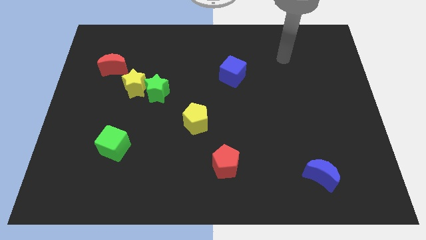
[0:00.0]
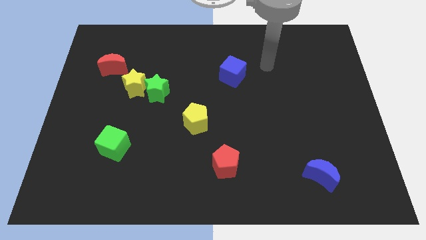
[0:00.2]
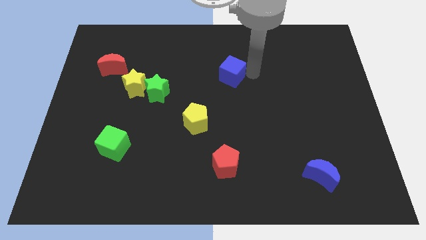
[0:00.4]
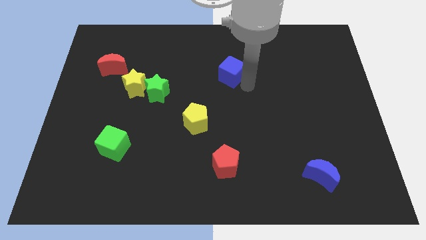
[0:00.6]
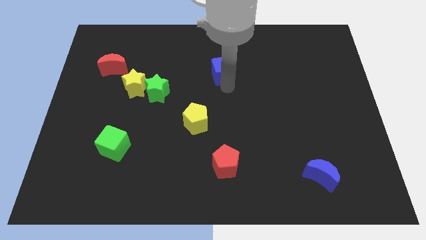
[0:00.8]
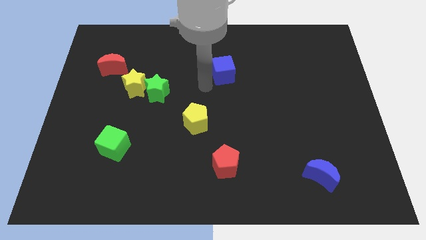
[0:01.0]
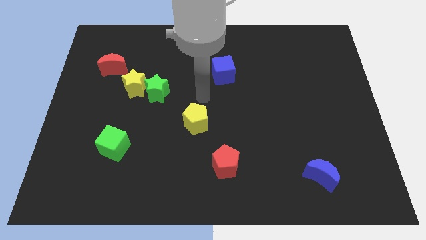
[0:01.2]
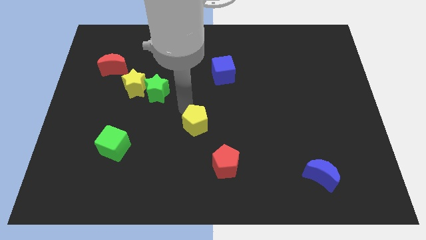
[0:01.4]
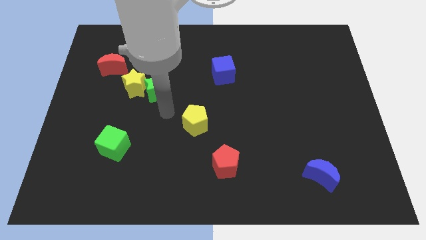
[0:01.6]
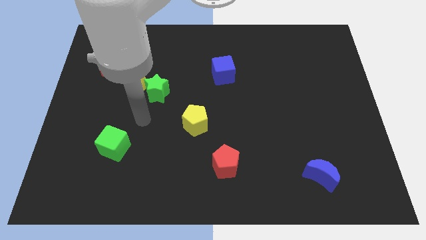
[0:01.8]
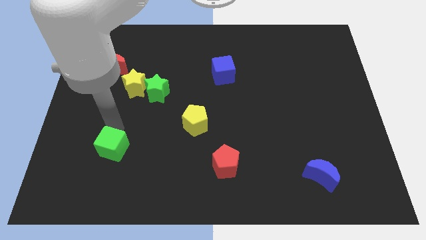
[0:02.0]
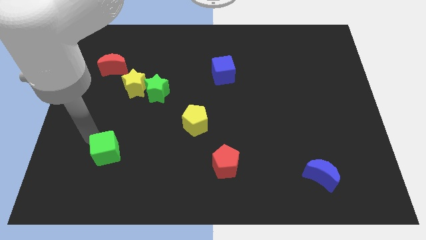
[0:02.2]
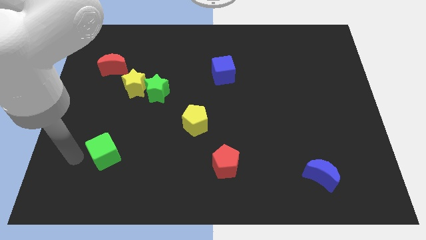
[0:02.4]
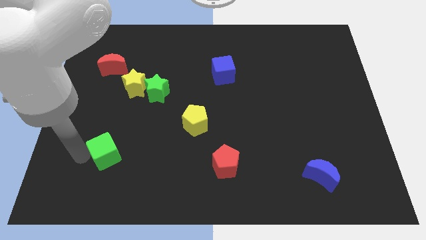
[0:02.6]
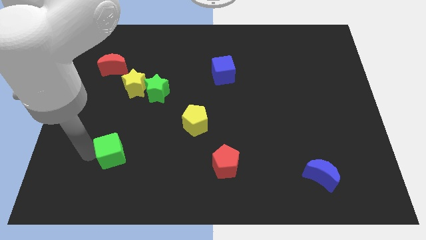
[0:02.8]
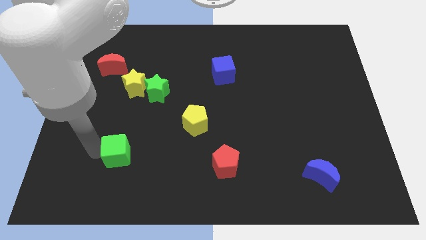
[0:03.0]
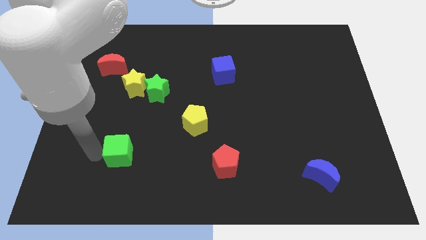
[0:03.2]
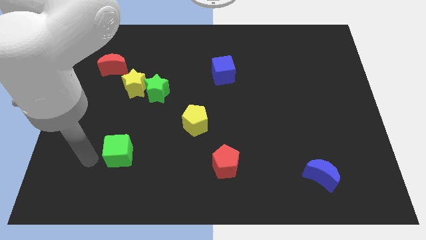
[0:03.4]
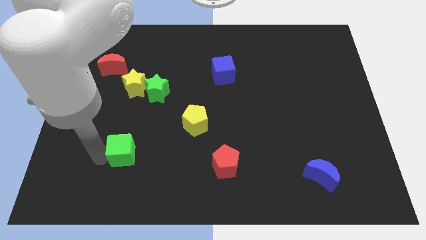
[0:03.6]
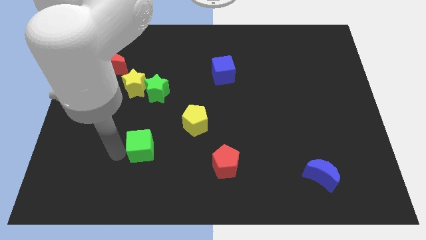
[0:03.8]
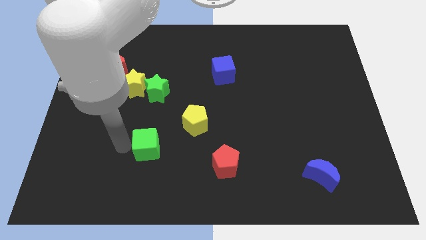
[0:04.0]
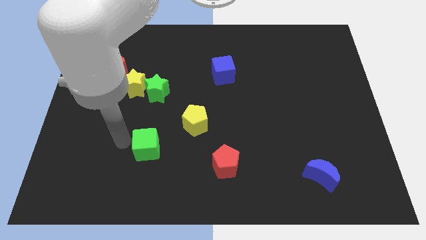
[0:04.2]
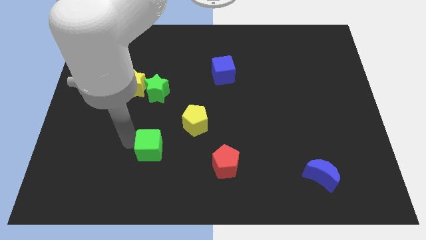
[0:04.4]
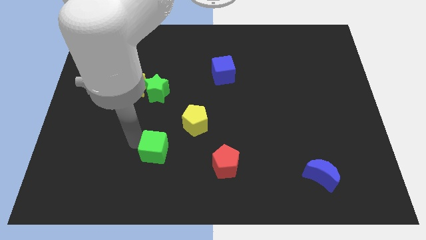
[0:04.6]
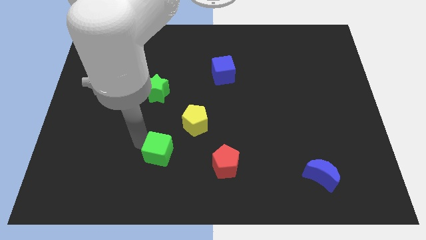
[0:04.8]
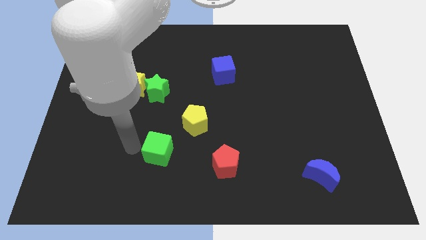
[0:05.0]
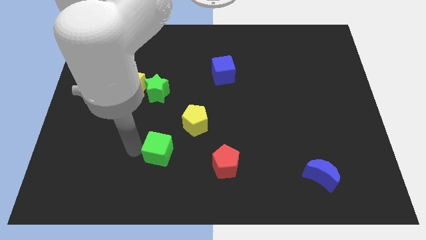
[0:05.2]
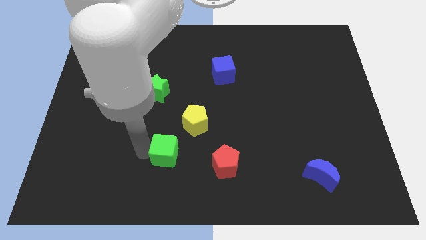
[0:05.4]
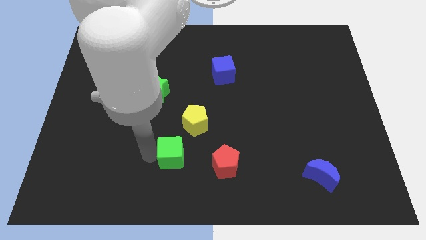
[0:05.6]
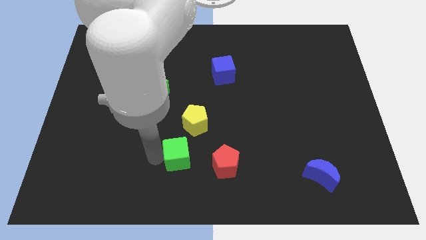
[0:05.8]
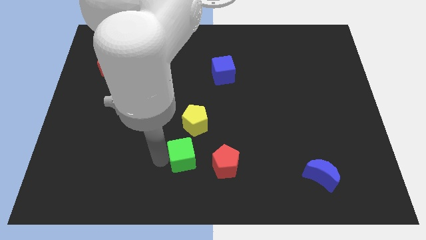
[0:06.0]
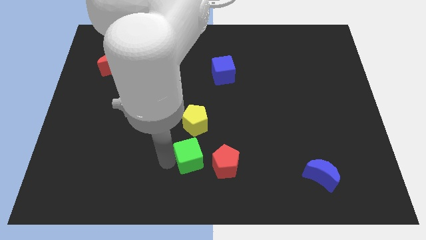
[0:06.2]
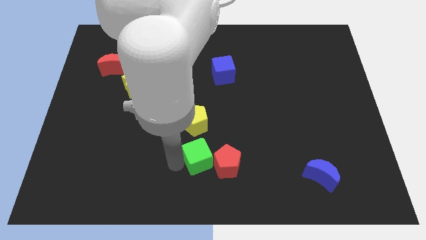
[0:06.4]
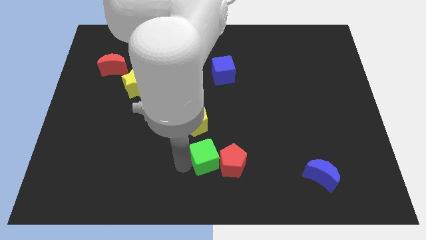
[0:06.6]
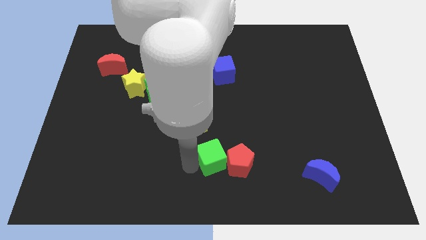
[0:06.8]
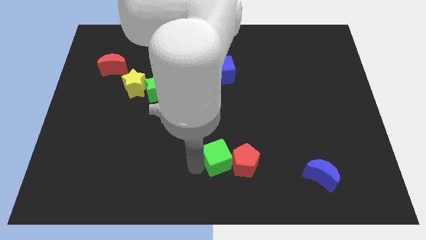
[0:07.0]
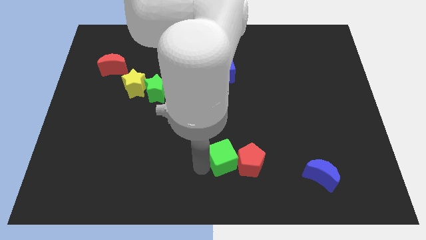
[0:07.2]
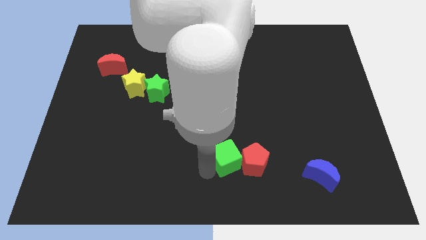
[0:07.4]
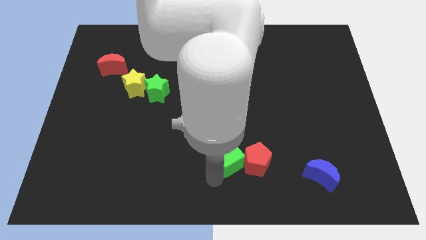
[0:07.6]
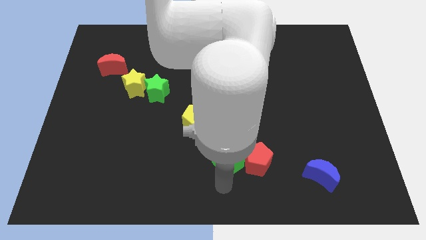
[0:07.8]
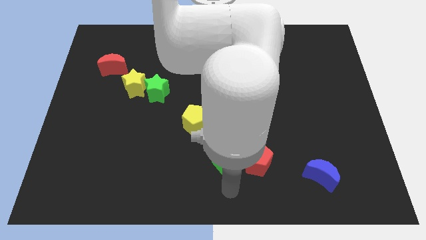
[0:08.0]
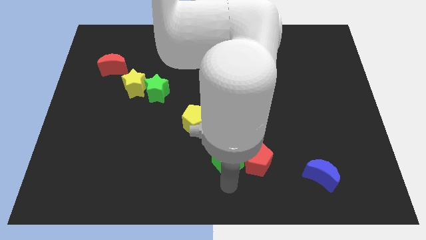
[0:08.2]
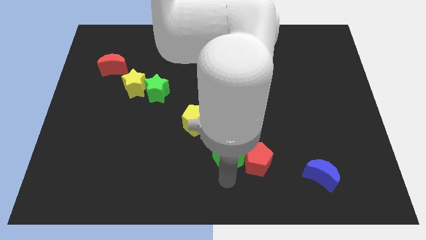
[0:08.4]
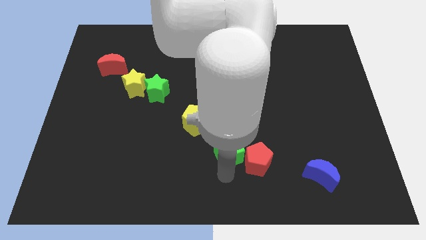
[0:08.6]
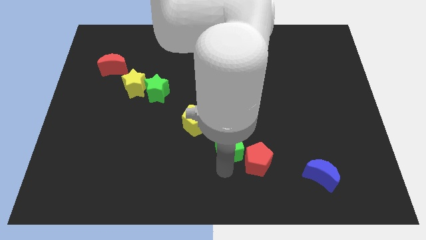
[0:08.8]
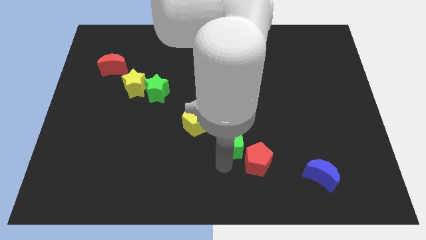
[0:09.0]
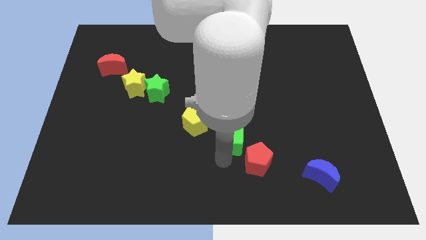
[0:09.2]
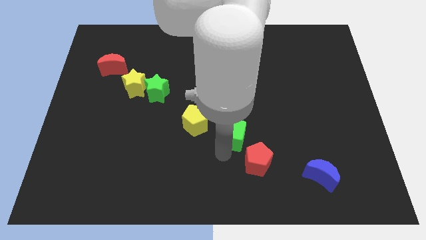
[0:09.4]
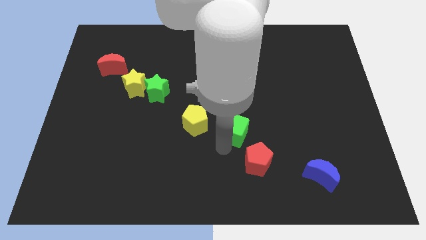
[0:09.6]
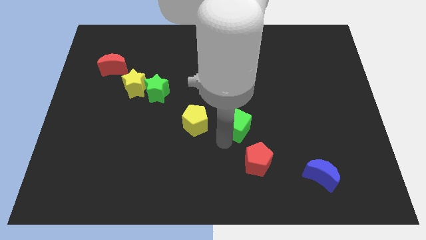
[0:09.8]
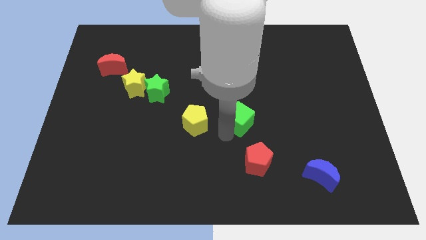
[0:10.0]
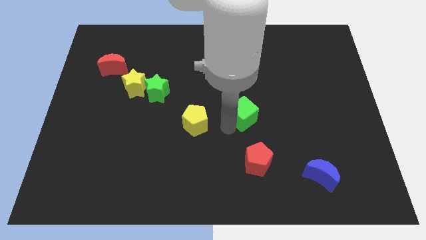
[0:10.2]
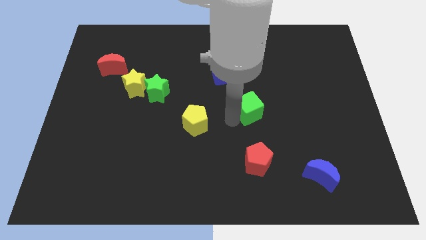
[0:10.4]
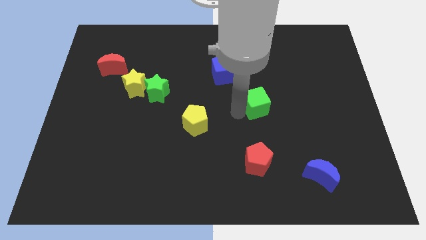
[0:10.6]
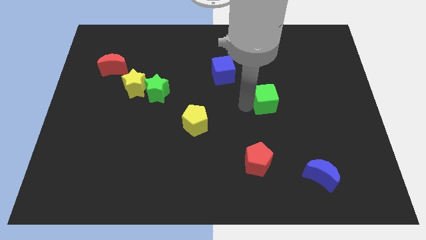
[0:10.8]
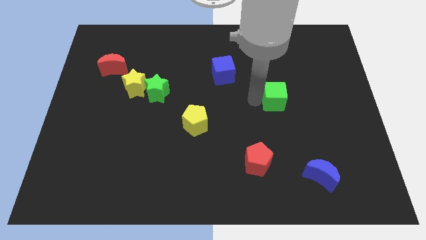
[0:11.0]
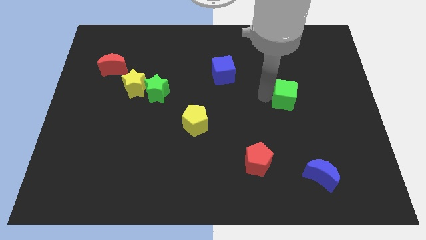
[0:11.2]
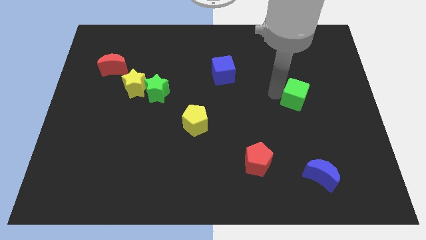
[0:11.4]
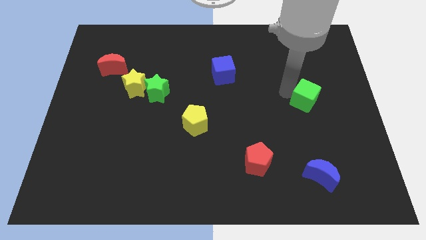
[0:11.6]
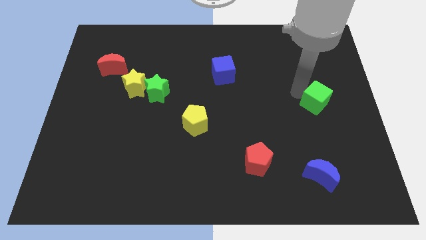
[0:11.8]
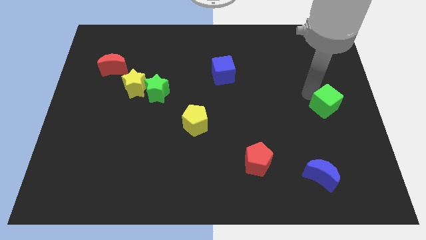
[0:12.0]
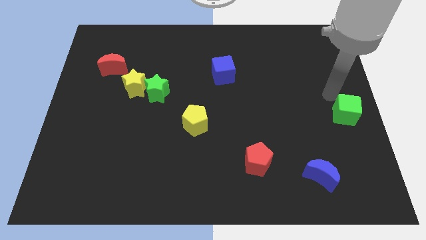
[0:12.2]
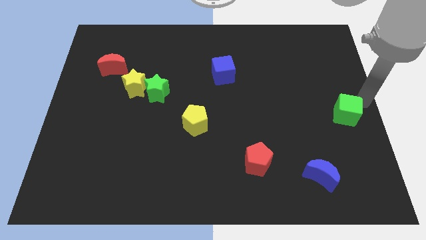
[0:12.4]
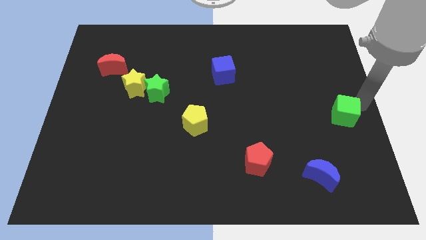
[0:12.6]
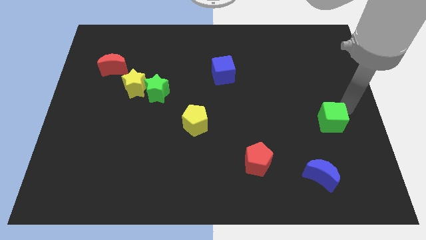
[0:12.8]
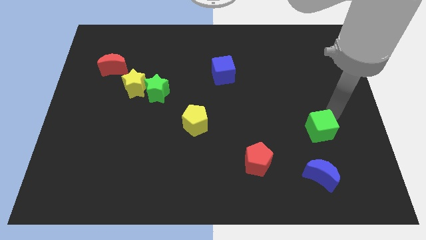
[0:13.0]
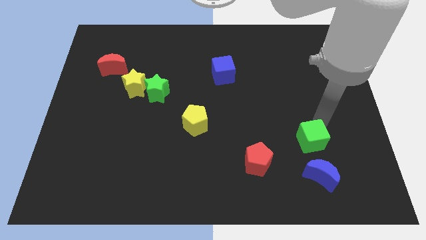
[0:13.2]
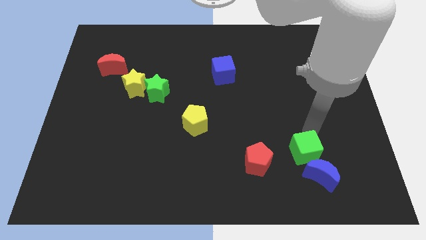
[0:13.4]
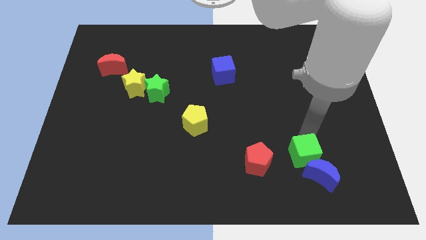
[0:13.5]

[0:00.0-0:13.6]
push the green cube next to the blue moon
